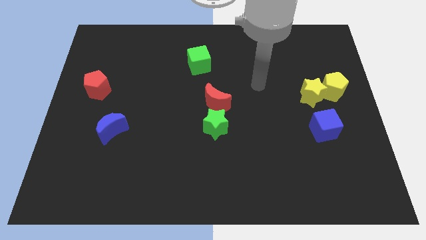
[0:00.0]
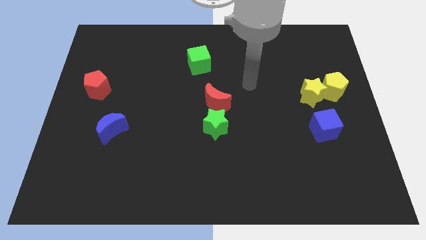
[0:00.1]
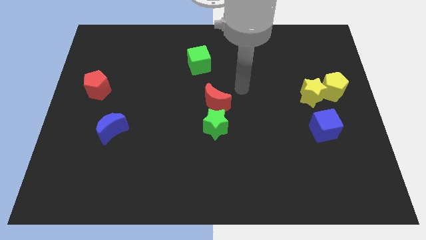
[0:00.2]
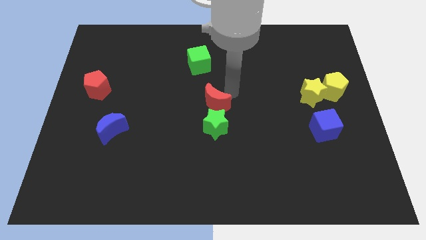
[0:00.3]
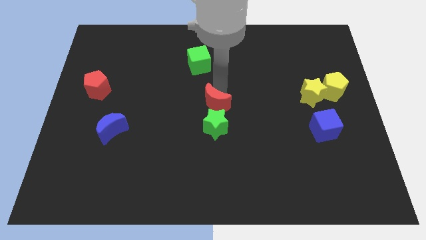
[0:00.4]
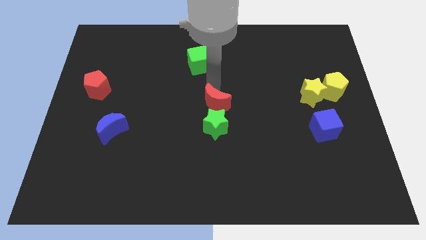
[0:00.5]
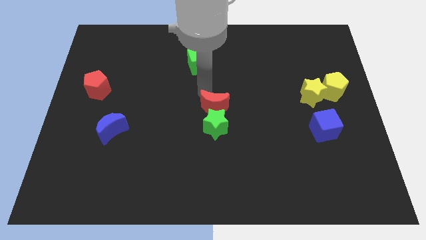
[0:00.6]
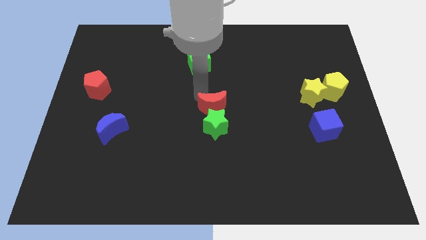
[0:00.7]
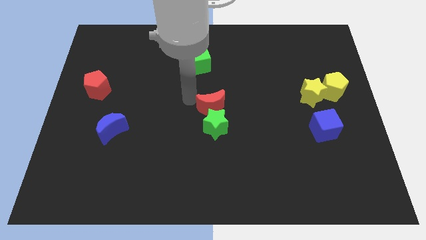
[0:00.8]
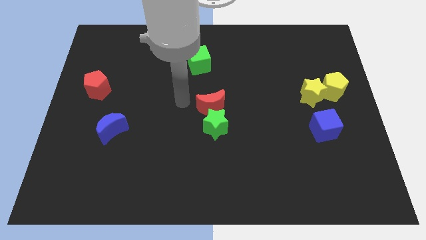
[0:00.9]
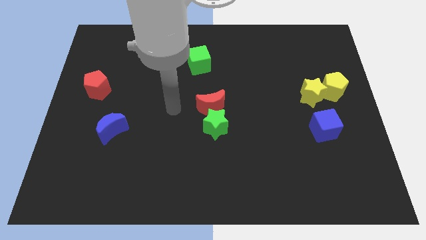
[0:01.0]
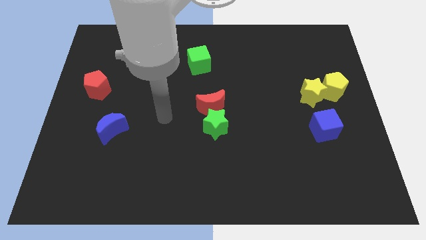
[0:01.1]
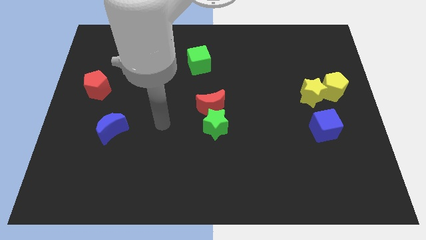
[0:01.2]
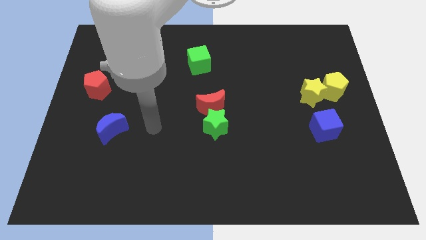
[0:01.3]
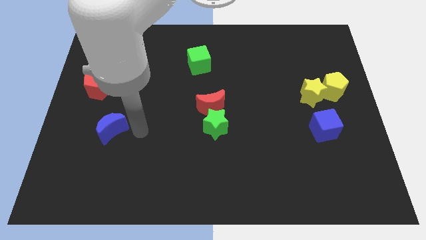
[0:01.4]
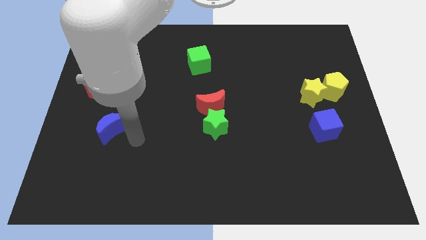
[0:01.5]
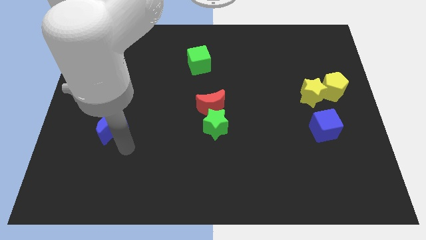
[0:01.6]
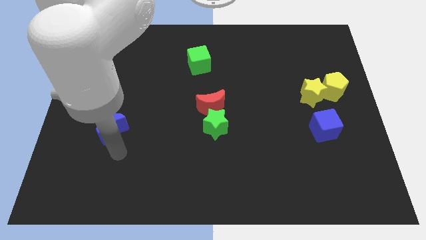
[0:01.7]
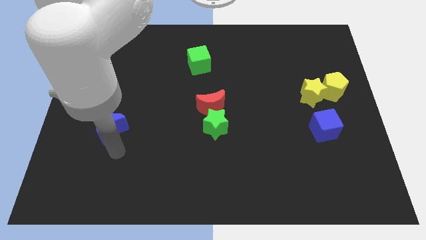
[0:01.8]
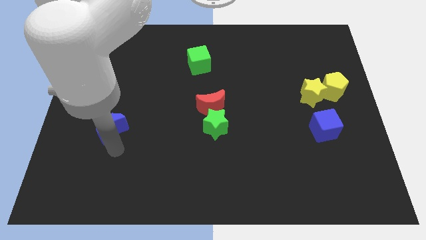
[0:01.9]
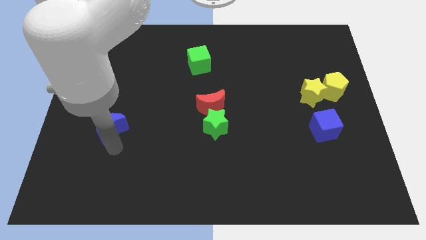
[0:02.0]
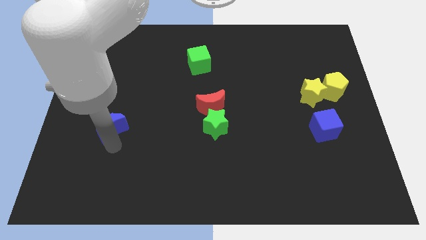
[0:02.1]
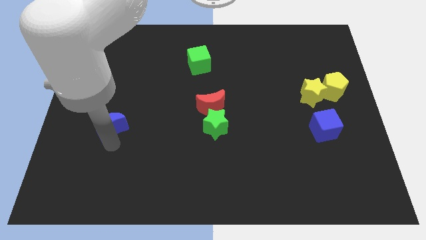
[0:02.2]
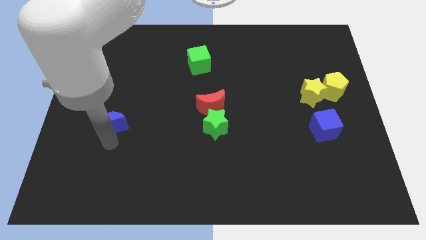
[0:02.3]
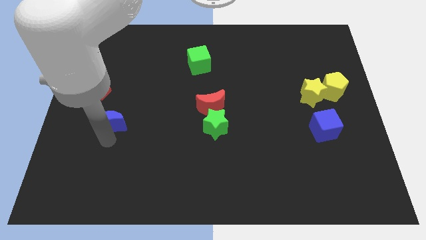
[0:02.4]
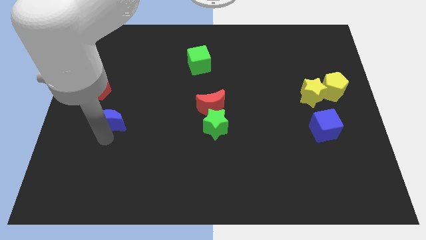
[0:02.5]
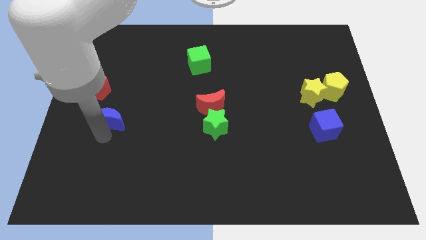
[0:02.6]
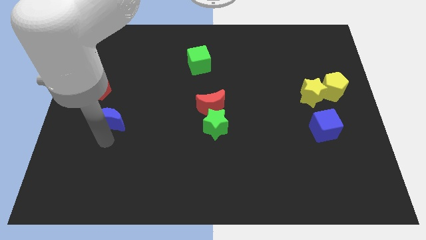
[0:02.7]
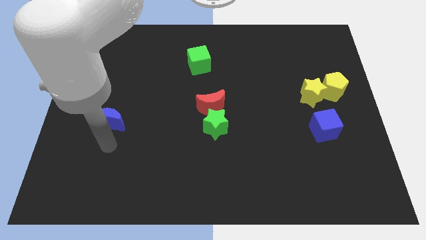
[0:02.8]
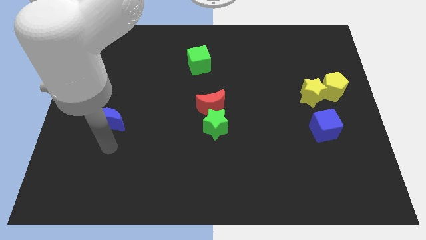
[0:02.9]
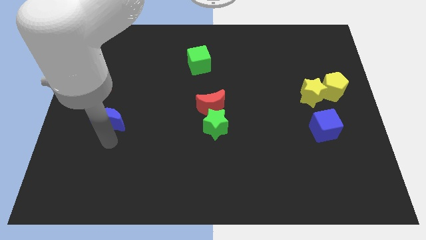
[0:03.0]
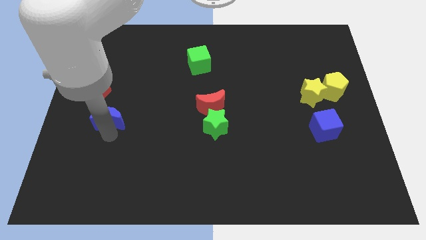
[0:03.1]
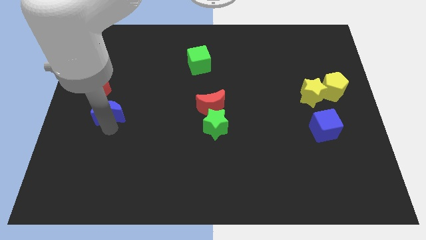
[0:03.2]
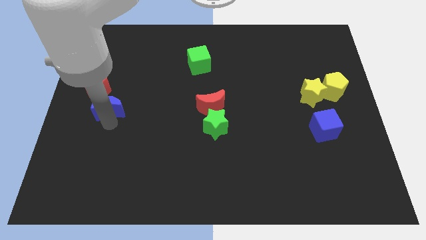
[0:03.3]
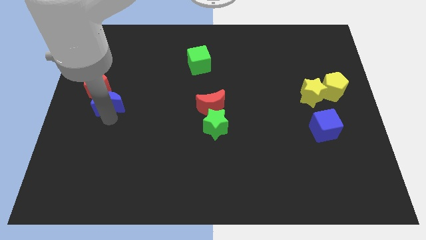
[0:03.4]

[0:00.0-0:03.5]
slightly push the blue moon upwards

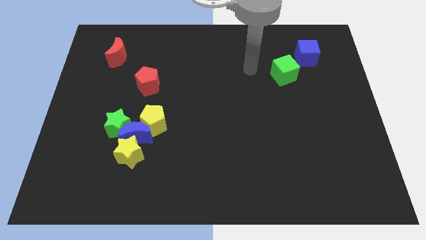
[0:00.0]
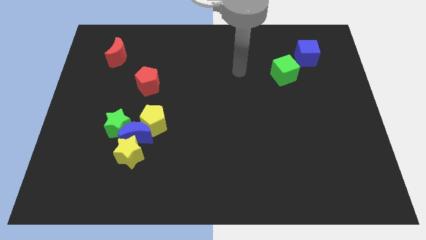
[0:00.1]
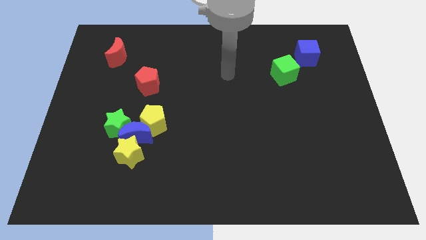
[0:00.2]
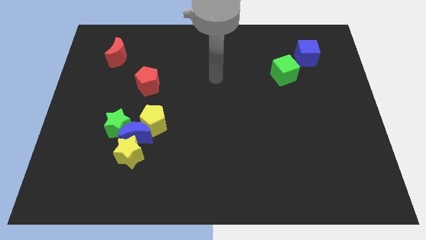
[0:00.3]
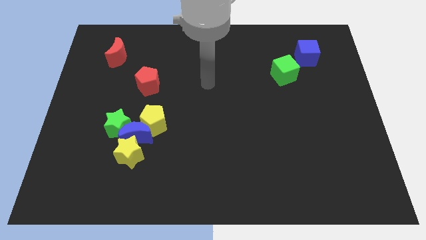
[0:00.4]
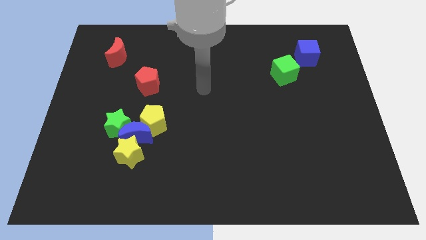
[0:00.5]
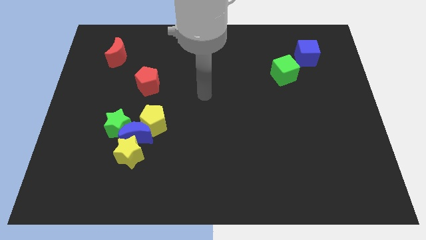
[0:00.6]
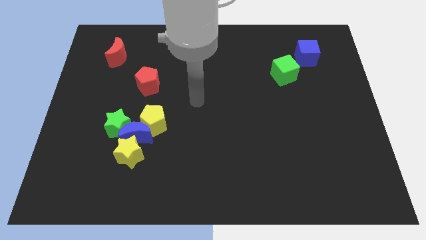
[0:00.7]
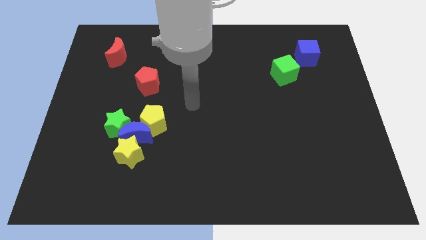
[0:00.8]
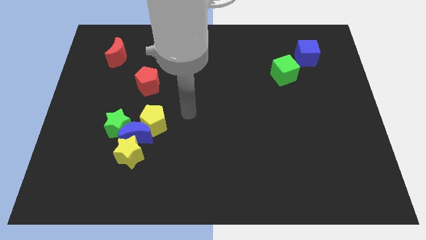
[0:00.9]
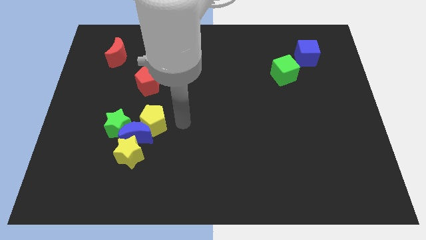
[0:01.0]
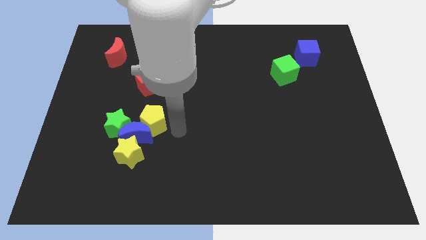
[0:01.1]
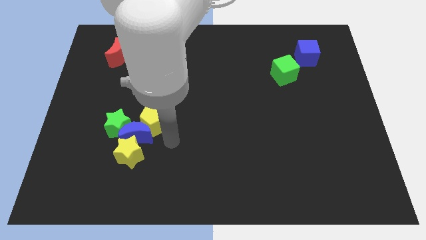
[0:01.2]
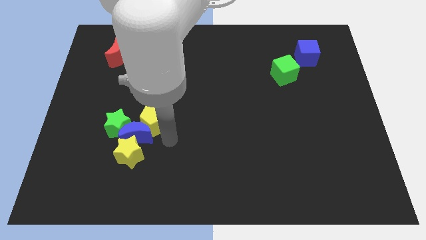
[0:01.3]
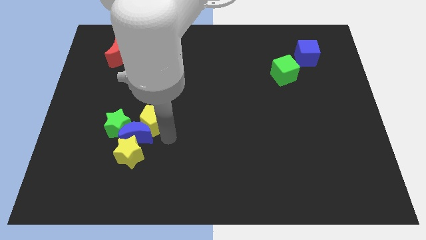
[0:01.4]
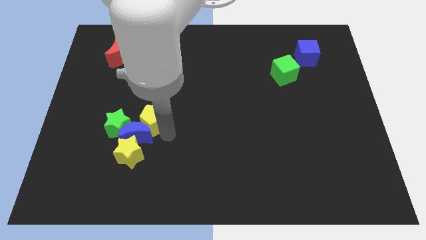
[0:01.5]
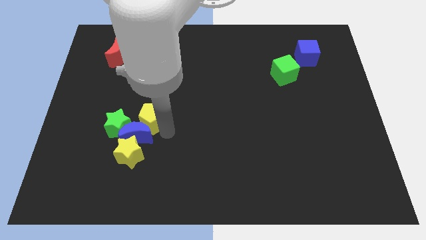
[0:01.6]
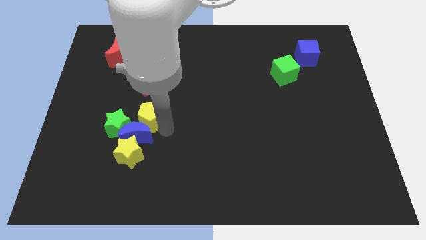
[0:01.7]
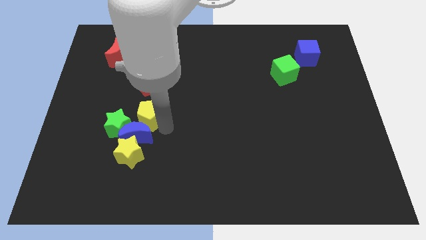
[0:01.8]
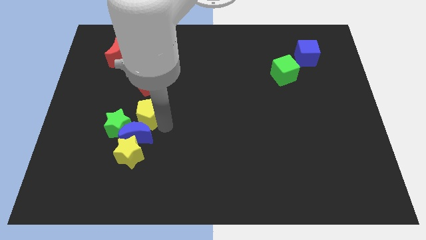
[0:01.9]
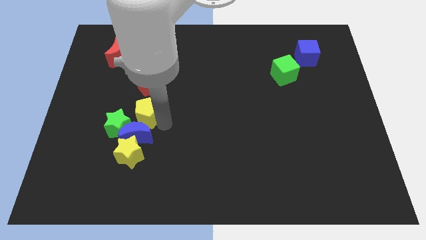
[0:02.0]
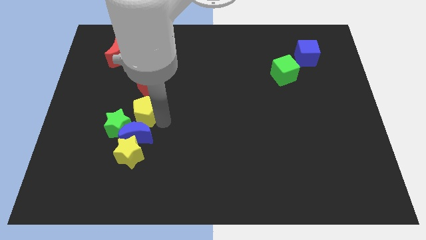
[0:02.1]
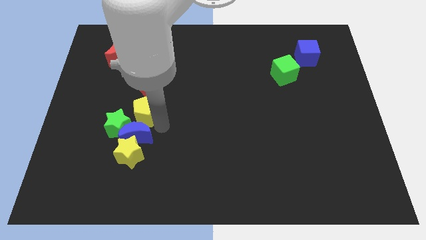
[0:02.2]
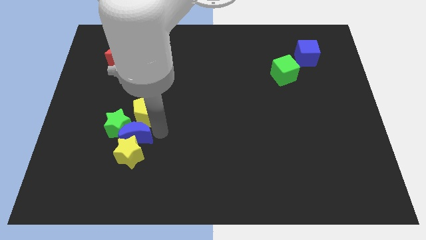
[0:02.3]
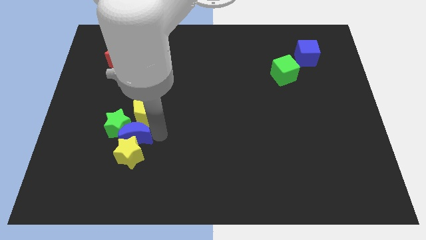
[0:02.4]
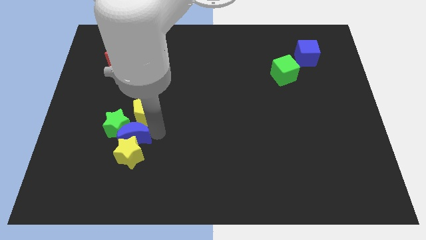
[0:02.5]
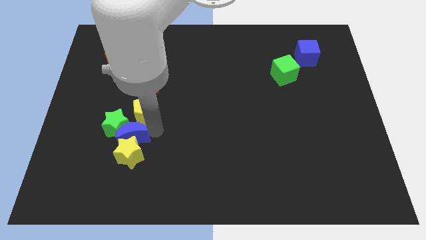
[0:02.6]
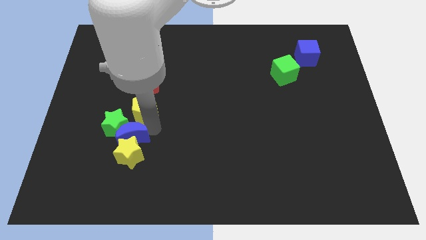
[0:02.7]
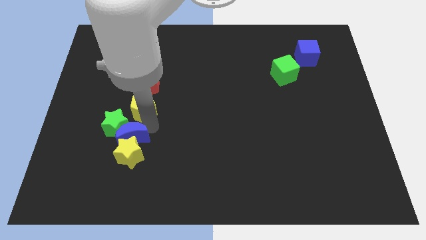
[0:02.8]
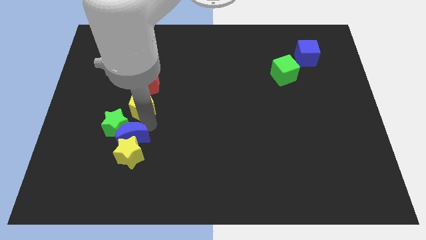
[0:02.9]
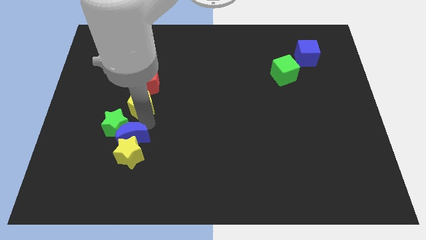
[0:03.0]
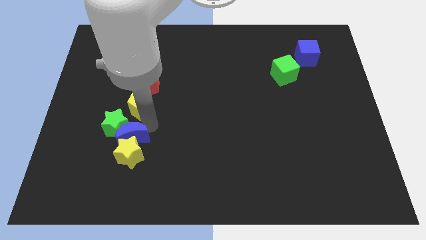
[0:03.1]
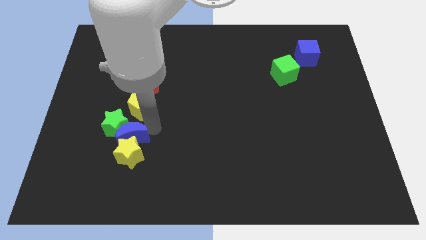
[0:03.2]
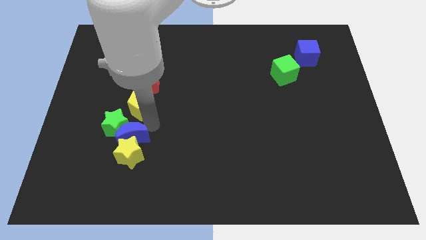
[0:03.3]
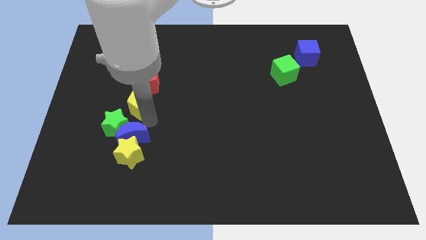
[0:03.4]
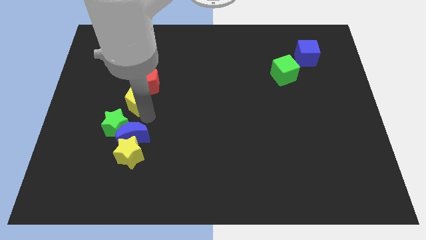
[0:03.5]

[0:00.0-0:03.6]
push the yellow pentagon diagonally upwards and left a little

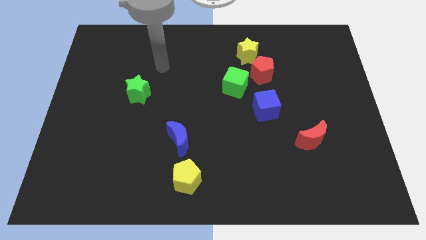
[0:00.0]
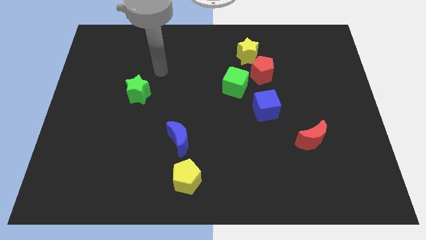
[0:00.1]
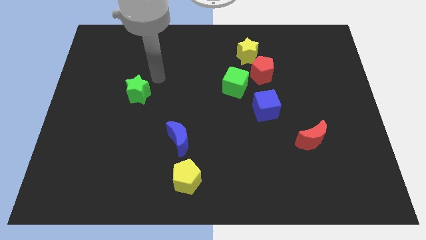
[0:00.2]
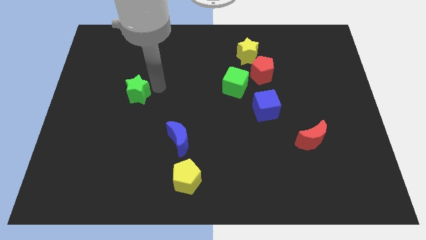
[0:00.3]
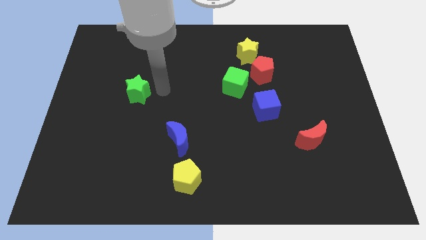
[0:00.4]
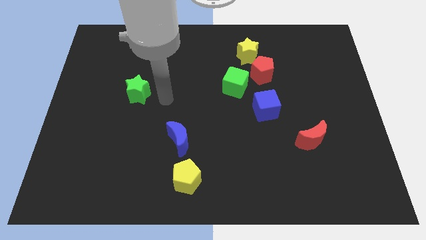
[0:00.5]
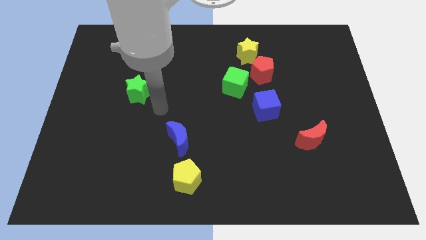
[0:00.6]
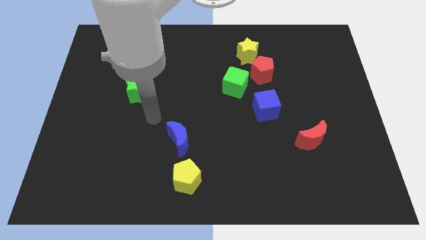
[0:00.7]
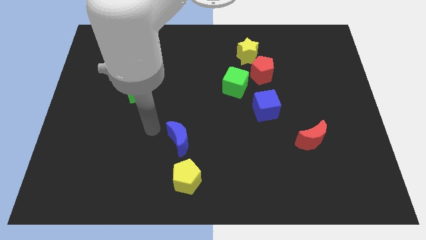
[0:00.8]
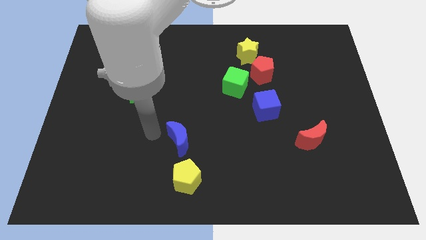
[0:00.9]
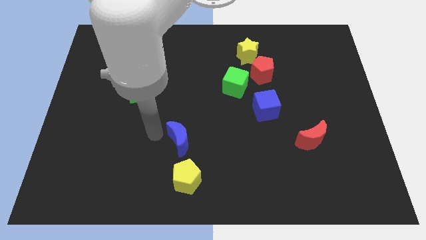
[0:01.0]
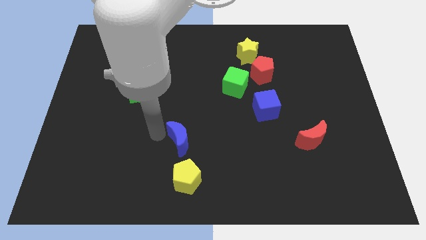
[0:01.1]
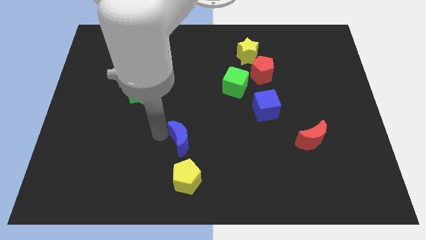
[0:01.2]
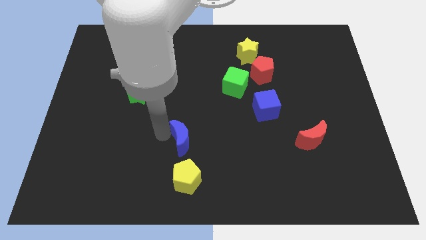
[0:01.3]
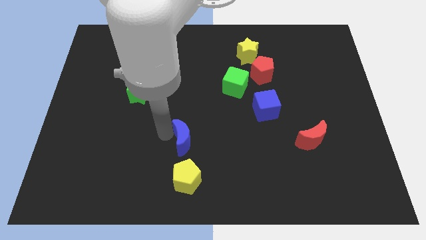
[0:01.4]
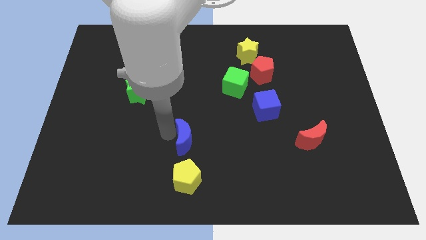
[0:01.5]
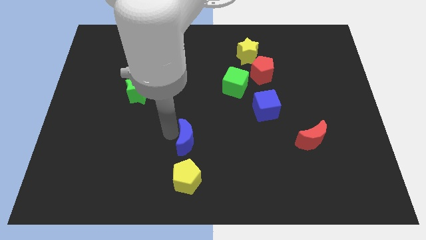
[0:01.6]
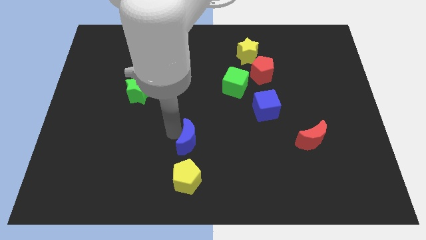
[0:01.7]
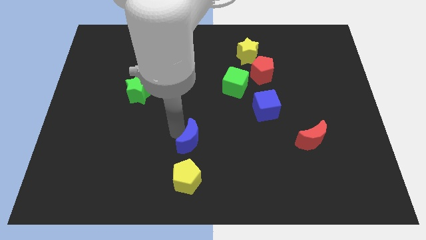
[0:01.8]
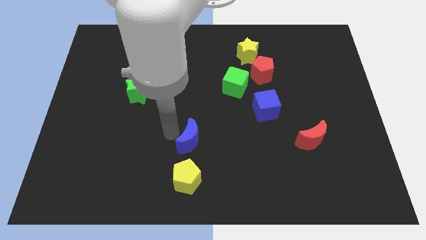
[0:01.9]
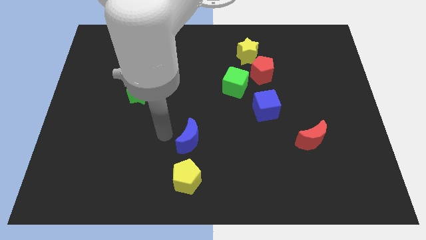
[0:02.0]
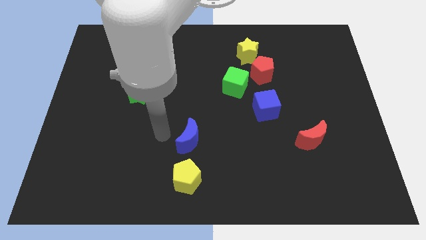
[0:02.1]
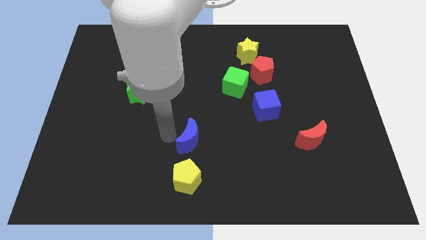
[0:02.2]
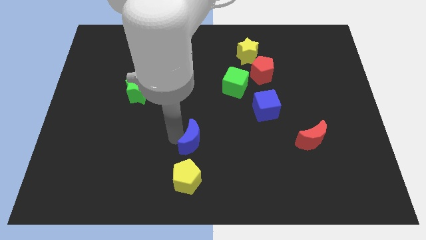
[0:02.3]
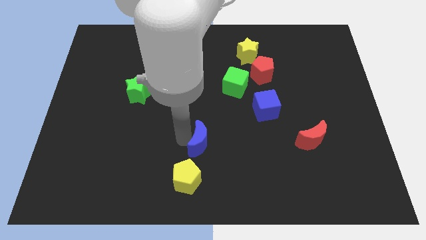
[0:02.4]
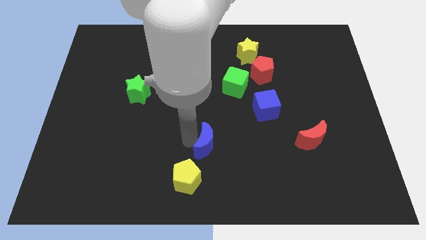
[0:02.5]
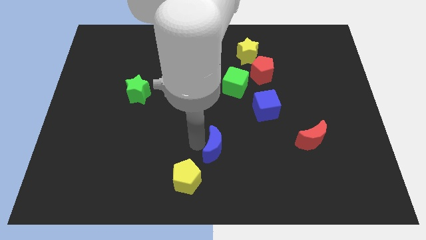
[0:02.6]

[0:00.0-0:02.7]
slide the blue moon right a bit
